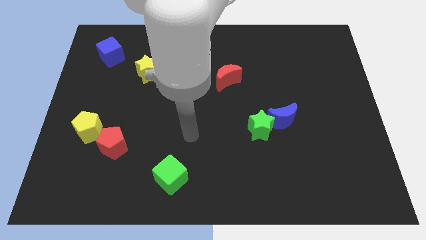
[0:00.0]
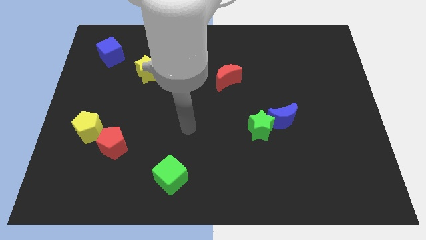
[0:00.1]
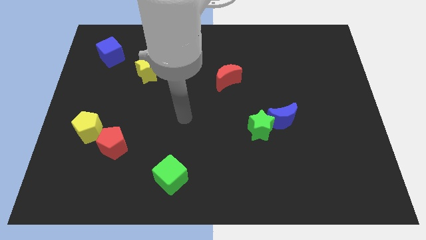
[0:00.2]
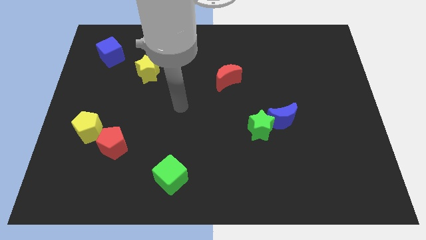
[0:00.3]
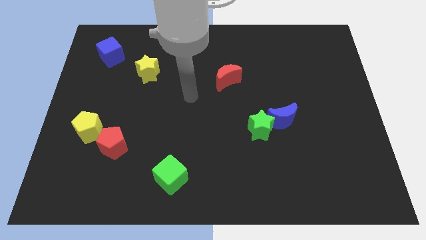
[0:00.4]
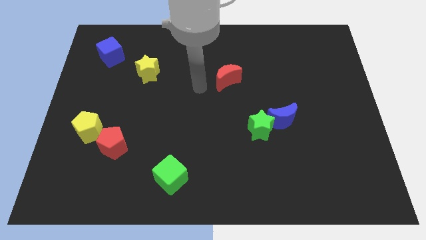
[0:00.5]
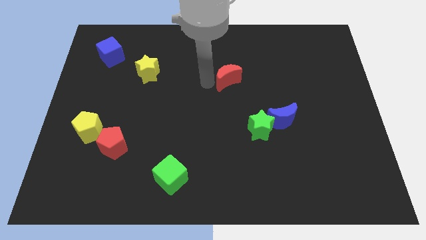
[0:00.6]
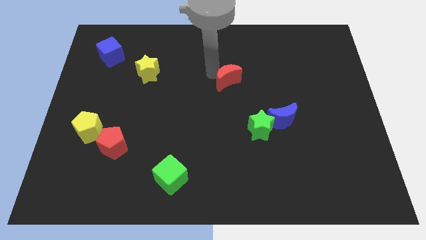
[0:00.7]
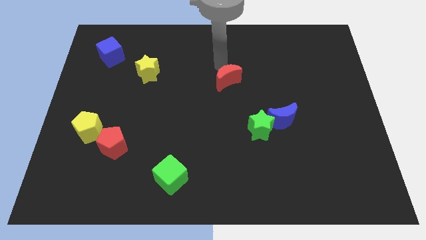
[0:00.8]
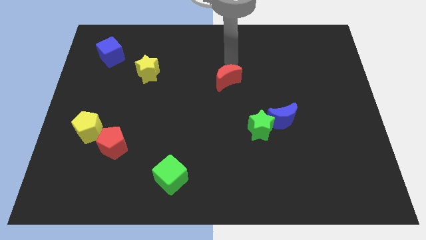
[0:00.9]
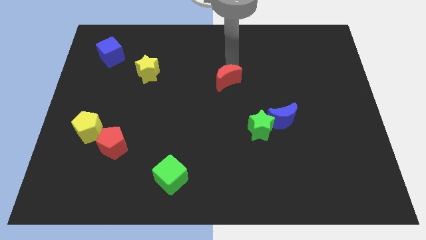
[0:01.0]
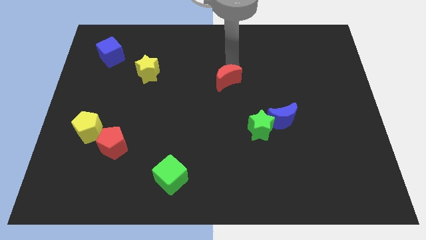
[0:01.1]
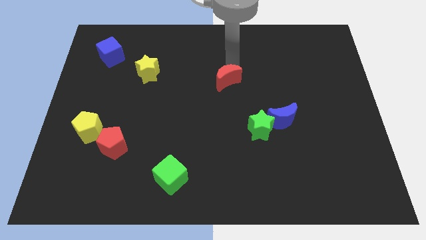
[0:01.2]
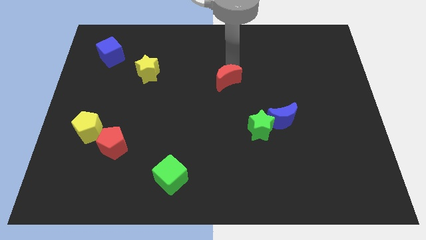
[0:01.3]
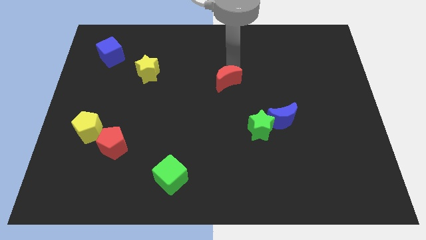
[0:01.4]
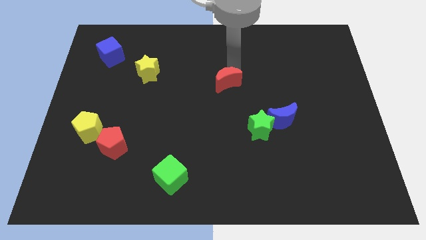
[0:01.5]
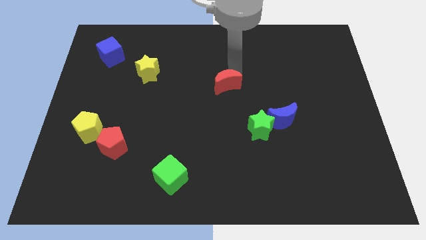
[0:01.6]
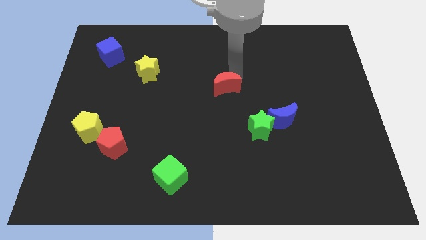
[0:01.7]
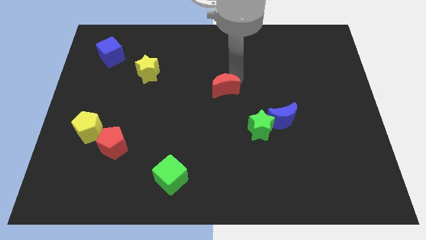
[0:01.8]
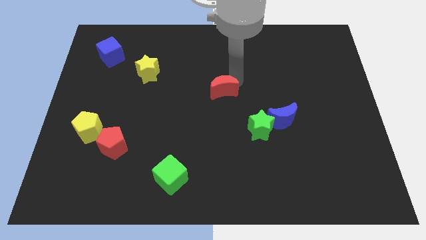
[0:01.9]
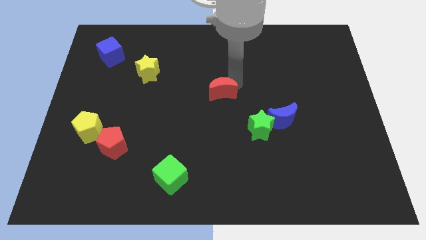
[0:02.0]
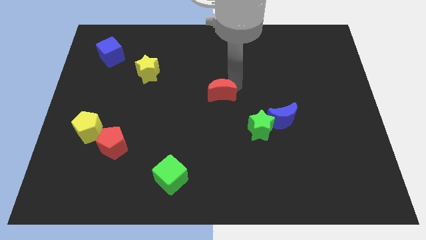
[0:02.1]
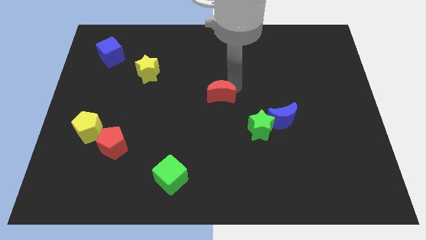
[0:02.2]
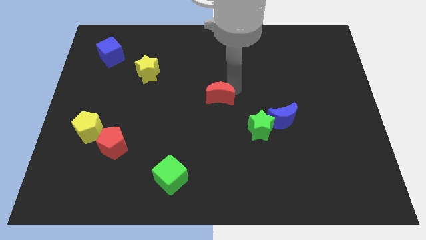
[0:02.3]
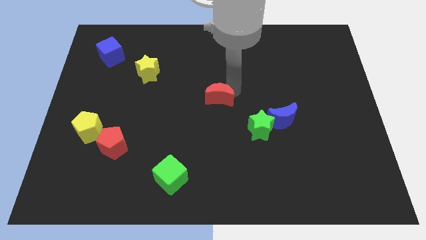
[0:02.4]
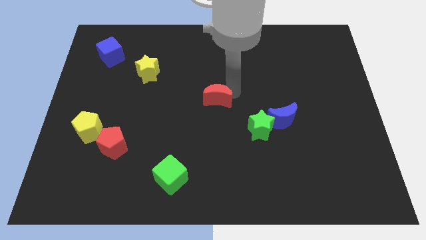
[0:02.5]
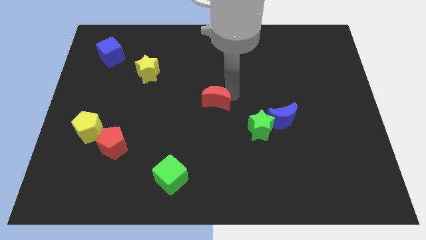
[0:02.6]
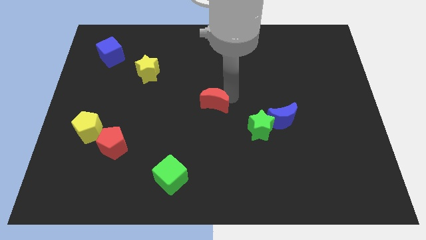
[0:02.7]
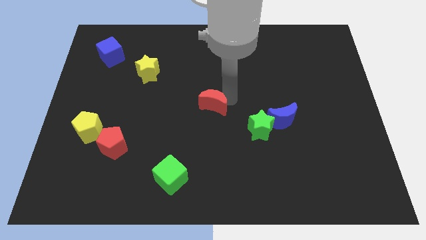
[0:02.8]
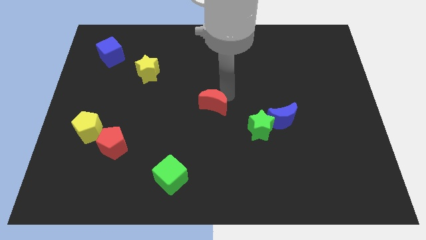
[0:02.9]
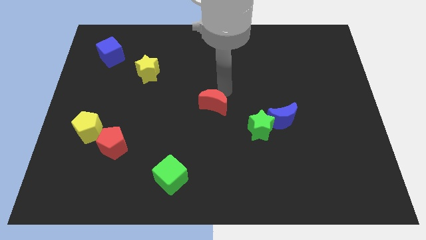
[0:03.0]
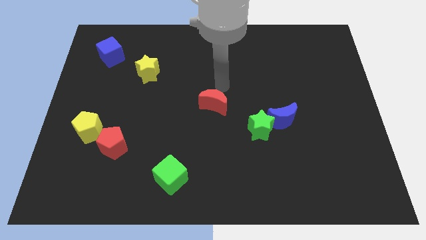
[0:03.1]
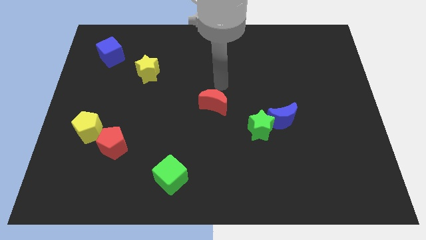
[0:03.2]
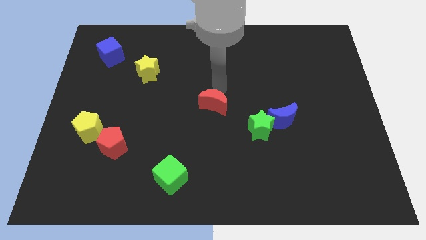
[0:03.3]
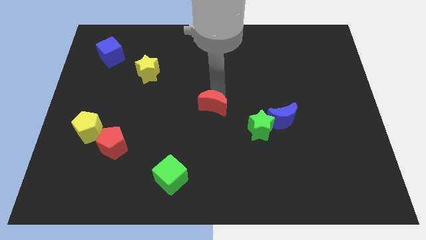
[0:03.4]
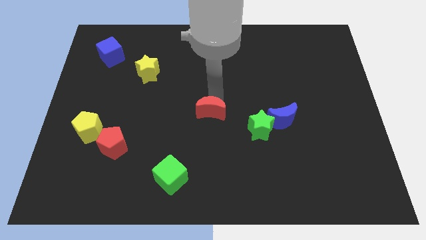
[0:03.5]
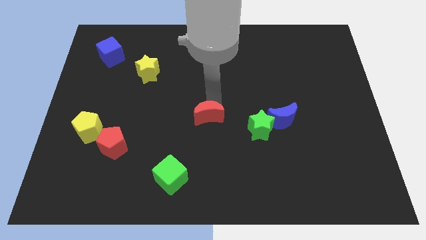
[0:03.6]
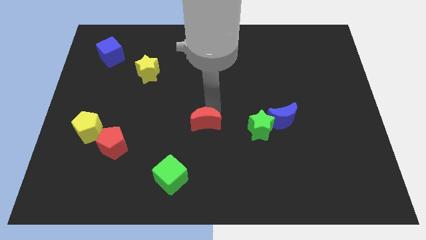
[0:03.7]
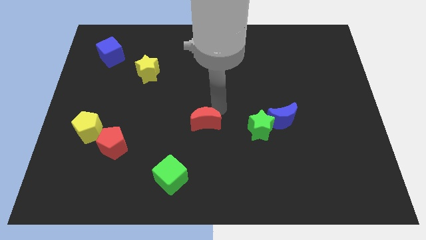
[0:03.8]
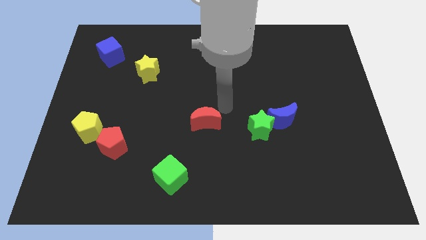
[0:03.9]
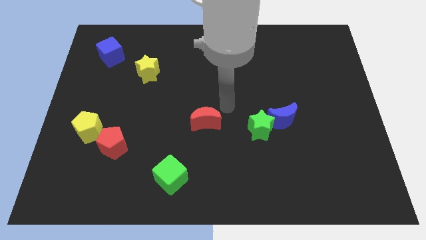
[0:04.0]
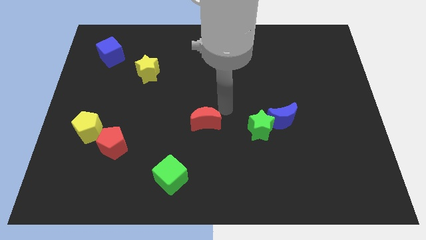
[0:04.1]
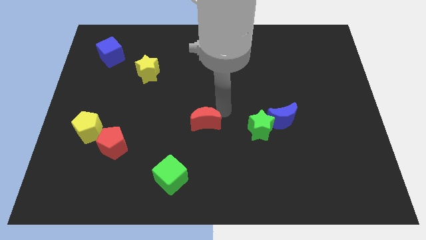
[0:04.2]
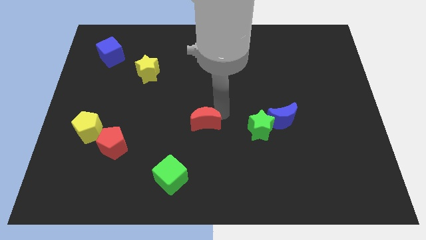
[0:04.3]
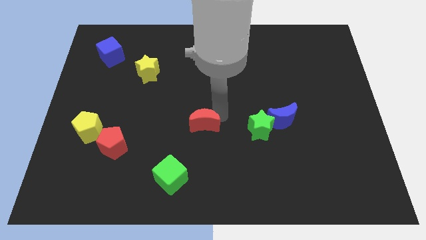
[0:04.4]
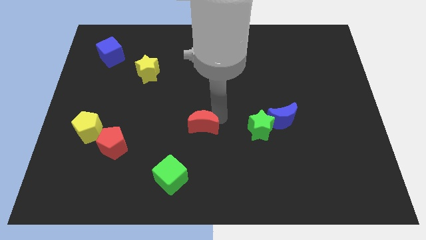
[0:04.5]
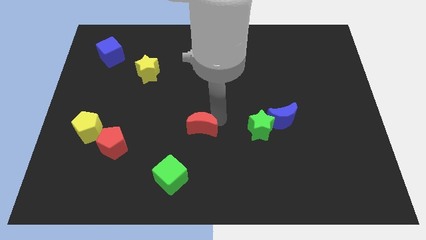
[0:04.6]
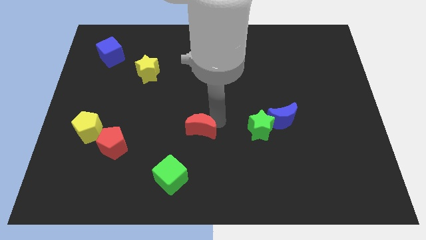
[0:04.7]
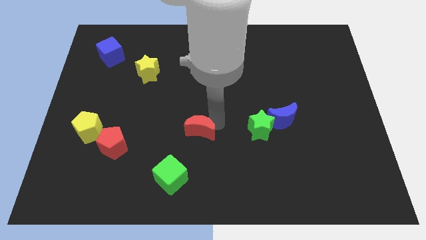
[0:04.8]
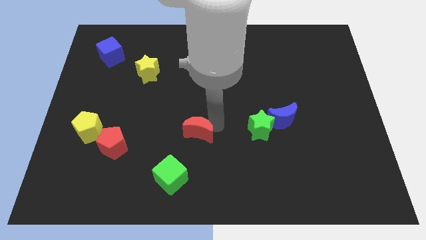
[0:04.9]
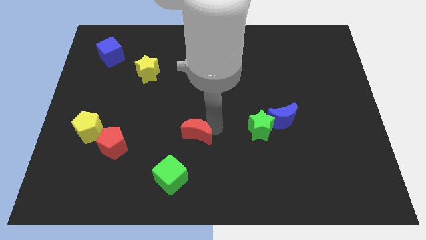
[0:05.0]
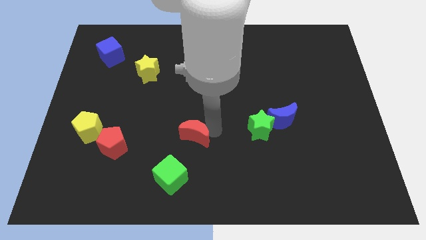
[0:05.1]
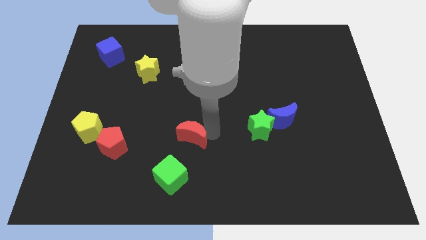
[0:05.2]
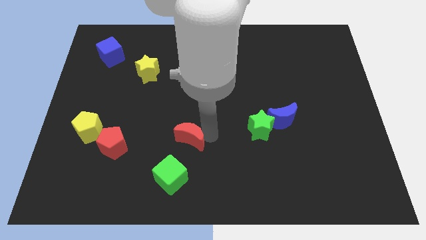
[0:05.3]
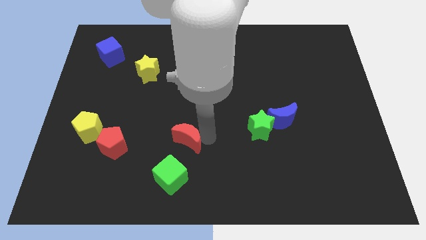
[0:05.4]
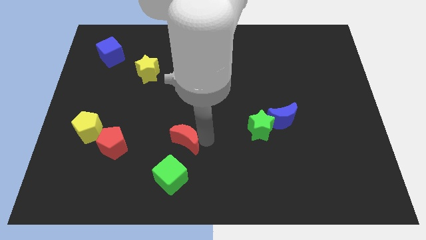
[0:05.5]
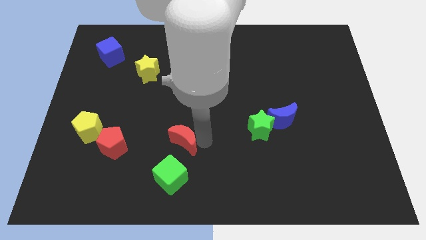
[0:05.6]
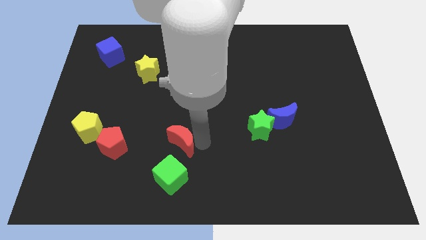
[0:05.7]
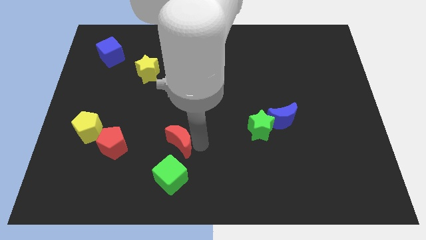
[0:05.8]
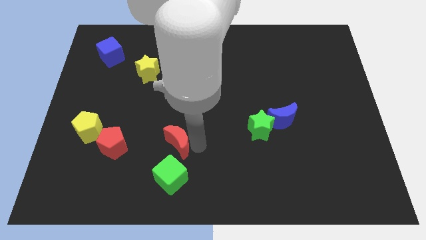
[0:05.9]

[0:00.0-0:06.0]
push the red moon down and to the left diagonally

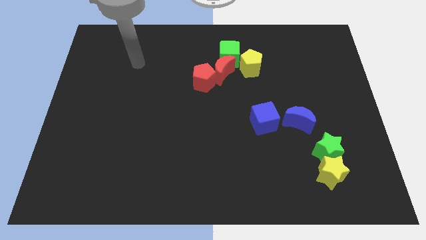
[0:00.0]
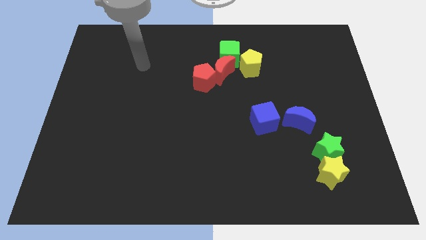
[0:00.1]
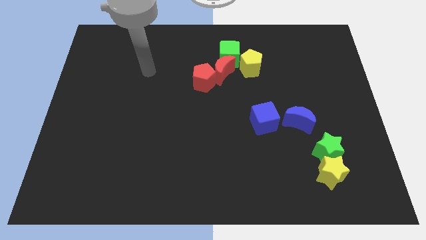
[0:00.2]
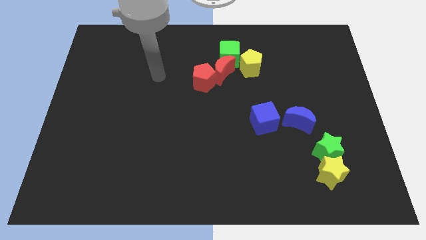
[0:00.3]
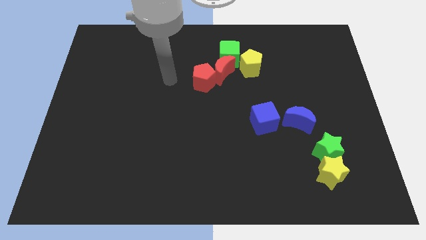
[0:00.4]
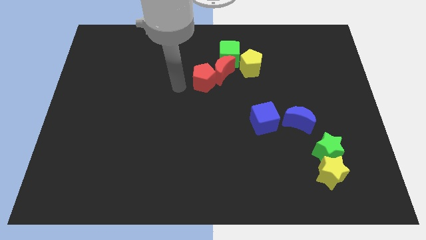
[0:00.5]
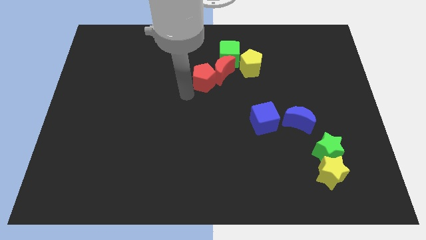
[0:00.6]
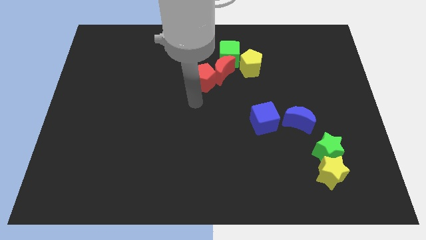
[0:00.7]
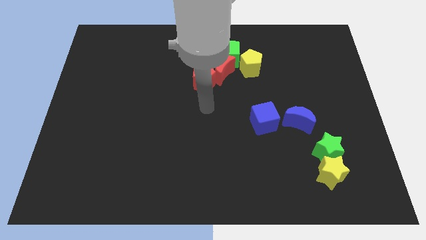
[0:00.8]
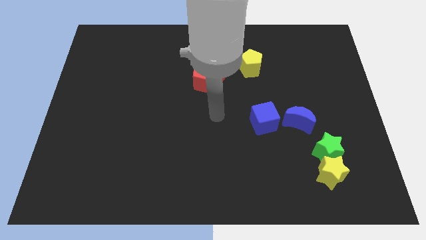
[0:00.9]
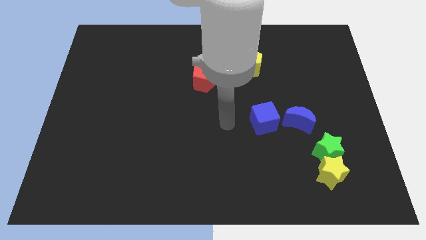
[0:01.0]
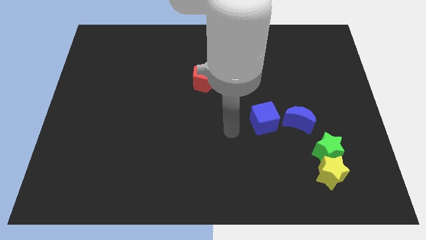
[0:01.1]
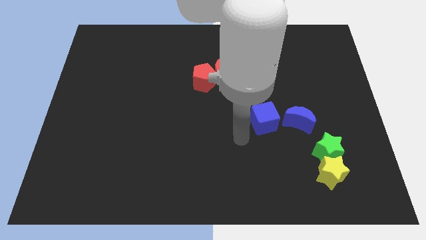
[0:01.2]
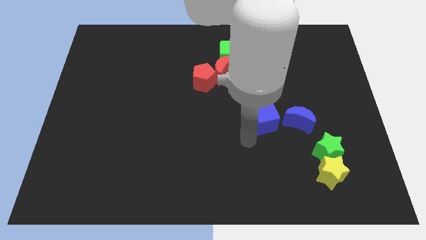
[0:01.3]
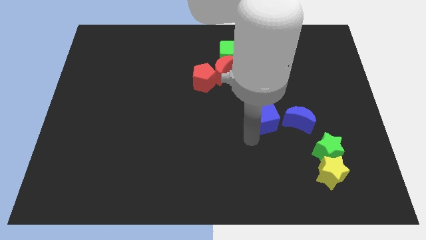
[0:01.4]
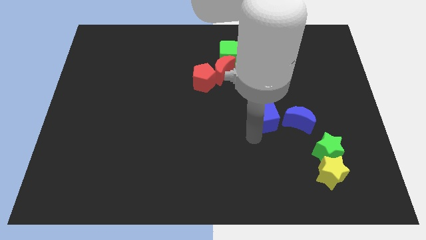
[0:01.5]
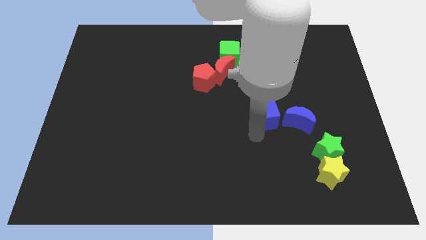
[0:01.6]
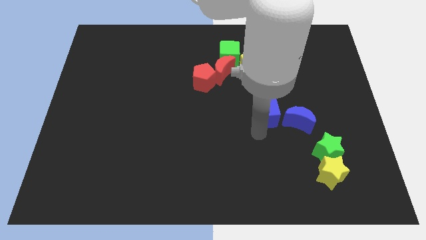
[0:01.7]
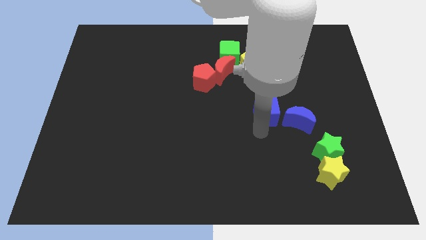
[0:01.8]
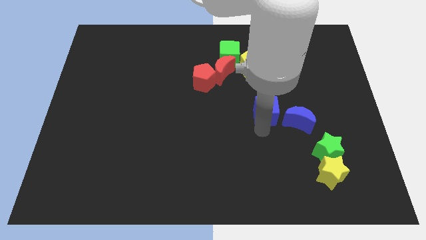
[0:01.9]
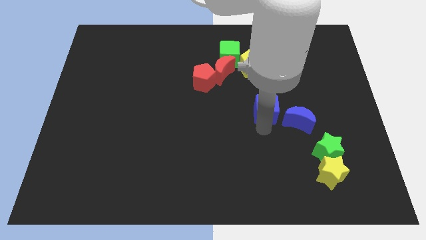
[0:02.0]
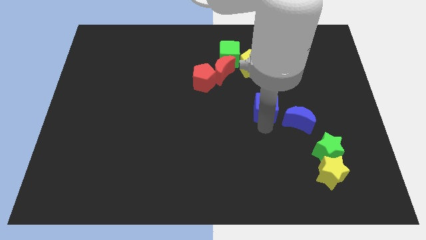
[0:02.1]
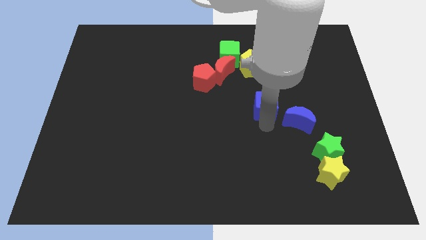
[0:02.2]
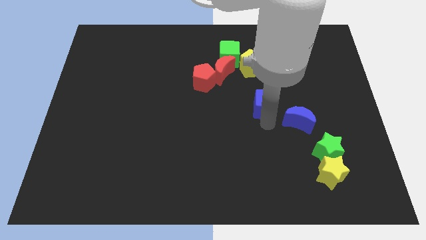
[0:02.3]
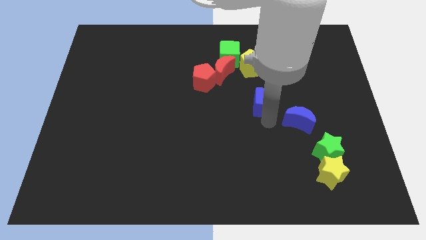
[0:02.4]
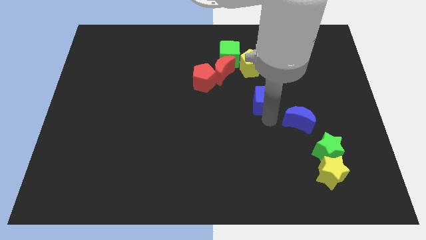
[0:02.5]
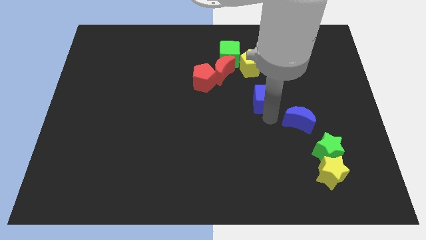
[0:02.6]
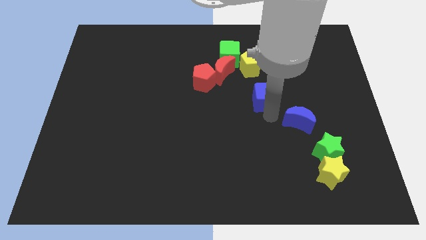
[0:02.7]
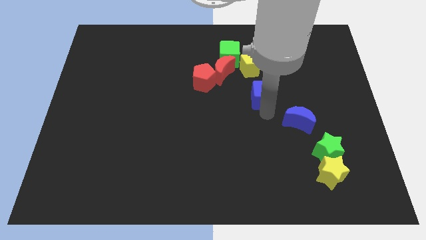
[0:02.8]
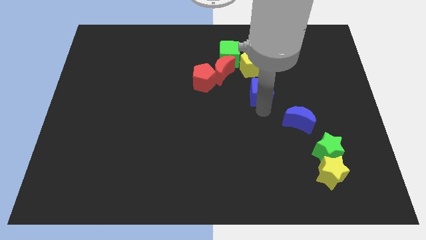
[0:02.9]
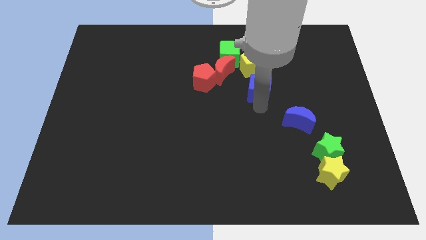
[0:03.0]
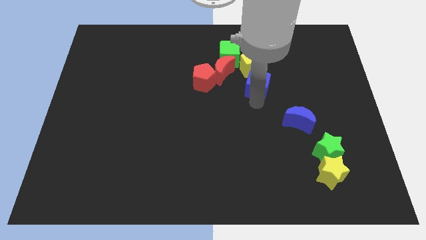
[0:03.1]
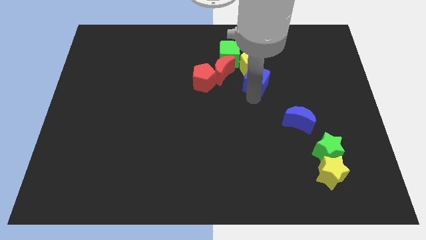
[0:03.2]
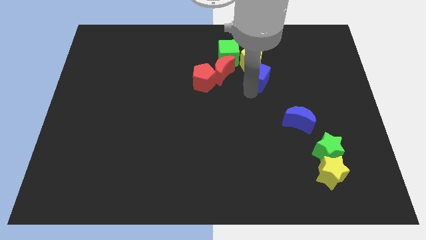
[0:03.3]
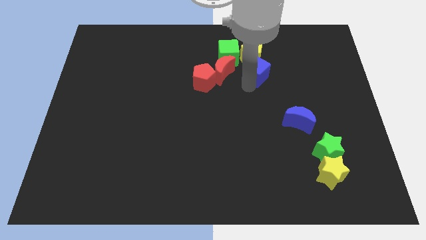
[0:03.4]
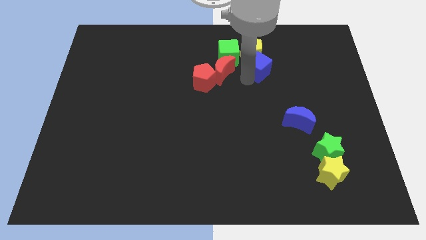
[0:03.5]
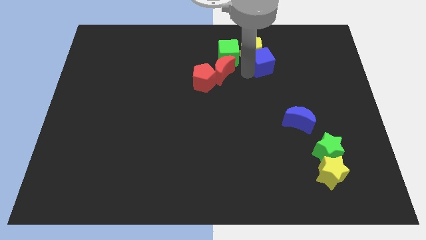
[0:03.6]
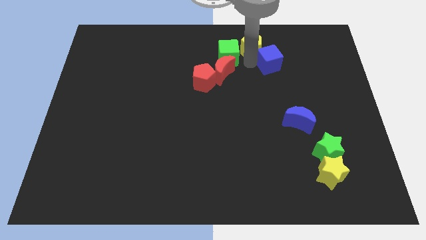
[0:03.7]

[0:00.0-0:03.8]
move the blue cube slightly diagonally upwards and right
